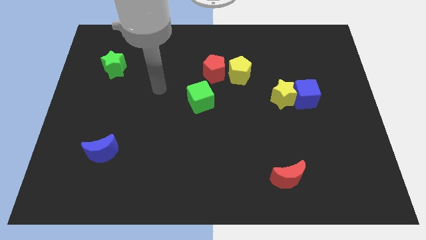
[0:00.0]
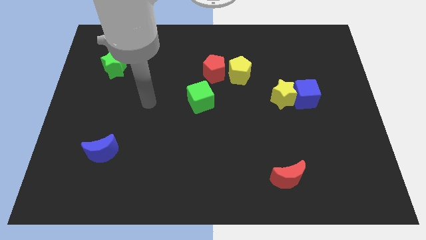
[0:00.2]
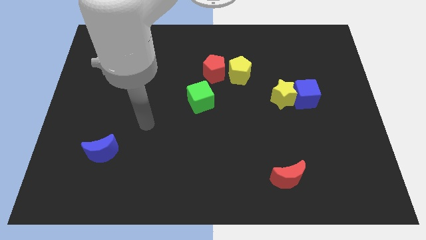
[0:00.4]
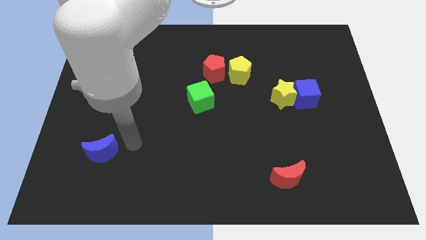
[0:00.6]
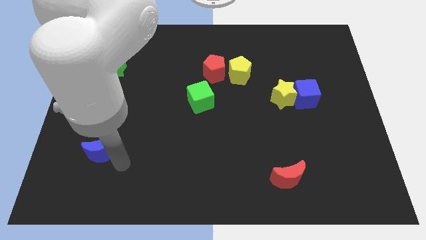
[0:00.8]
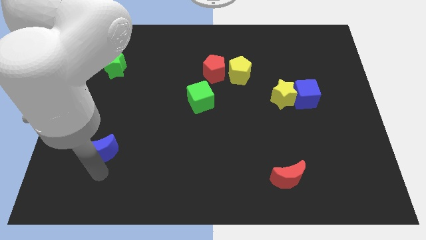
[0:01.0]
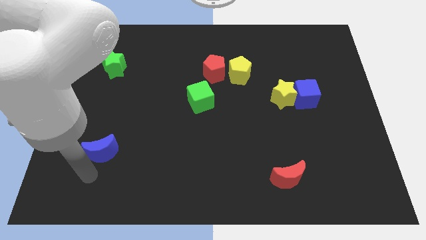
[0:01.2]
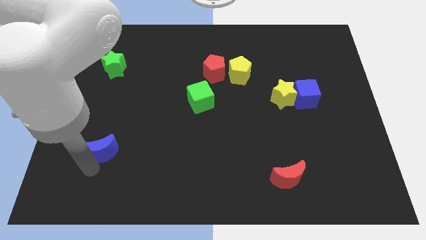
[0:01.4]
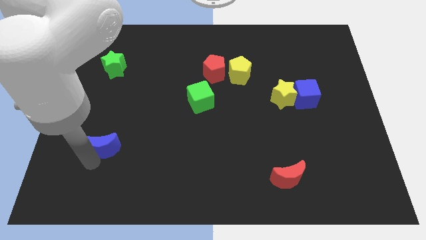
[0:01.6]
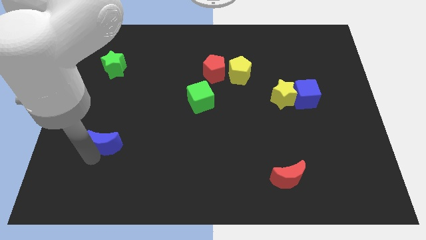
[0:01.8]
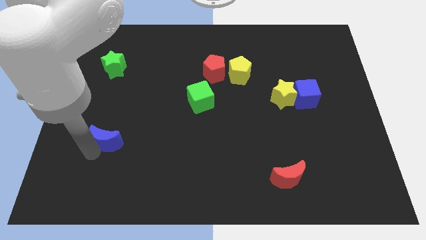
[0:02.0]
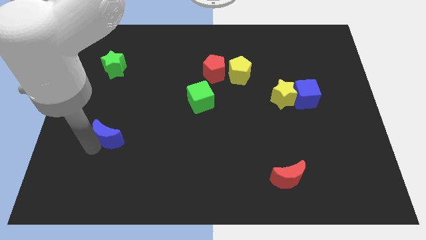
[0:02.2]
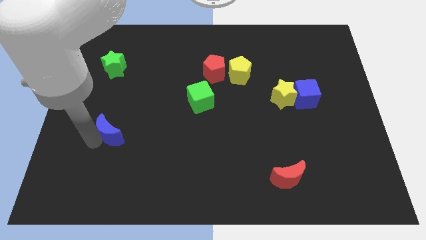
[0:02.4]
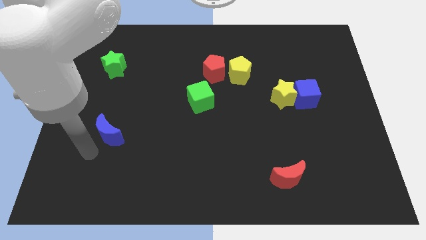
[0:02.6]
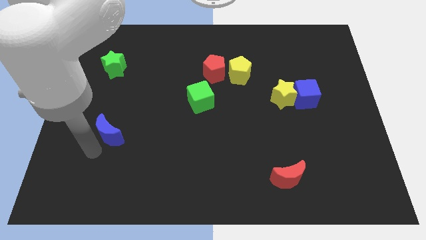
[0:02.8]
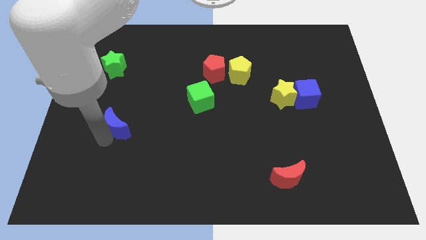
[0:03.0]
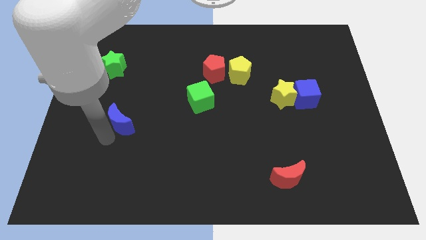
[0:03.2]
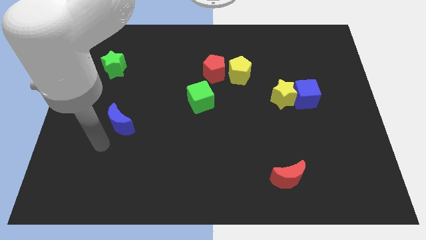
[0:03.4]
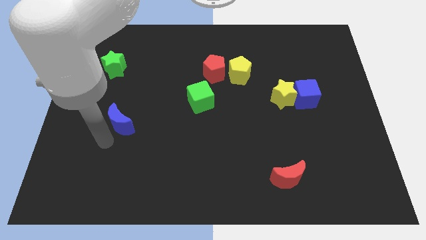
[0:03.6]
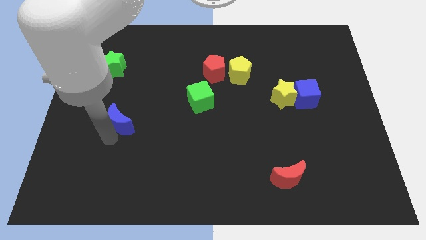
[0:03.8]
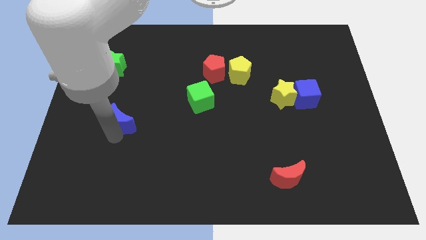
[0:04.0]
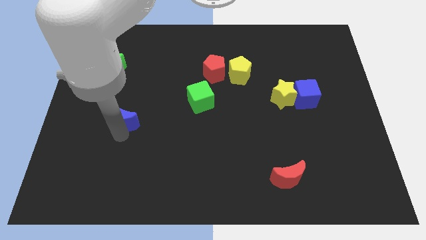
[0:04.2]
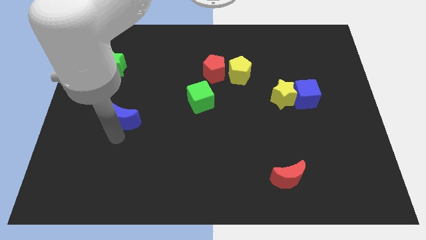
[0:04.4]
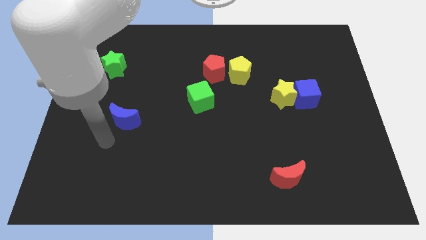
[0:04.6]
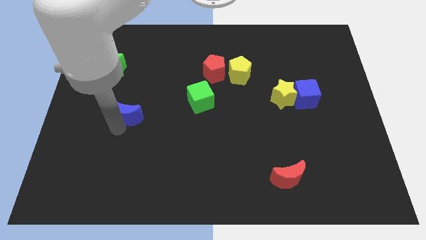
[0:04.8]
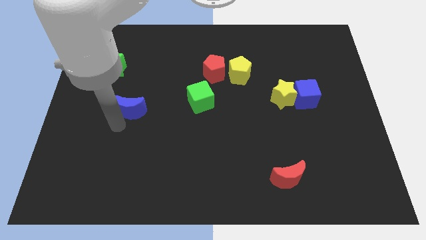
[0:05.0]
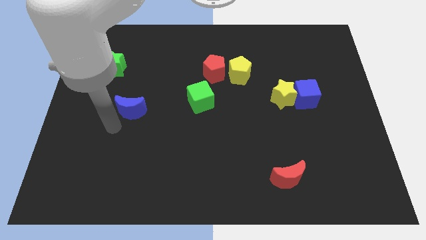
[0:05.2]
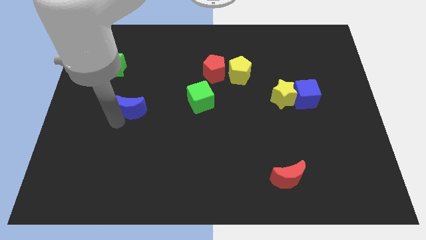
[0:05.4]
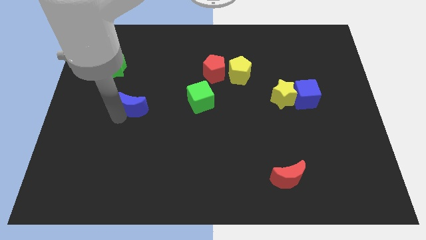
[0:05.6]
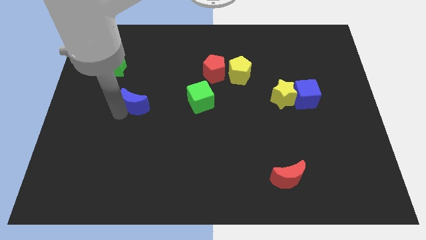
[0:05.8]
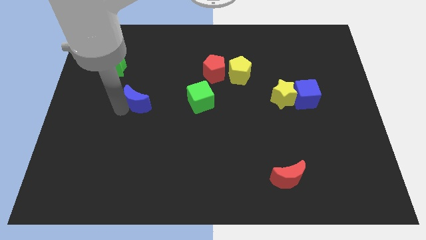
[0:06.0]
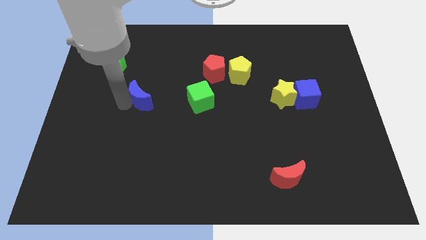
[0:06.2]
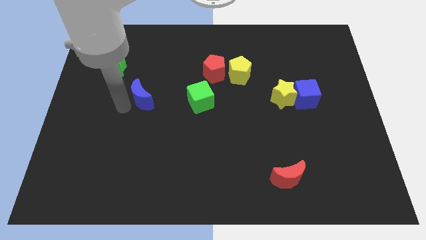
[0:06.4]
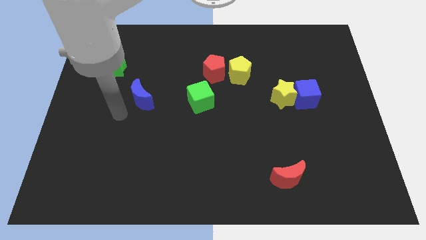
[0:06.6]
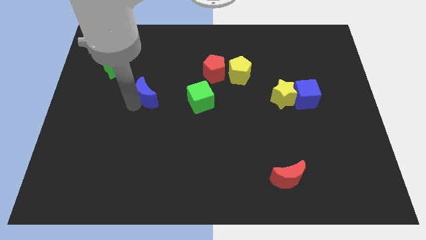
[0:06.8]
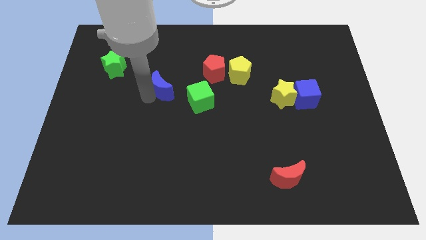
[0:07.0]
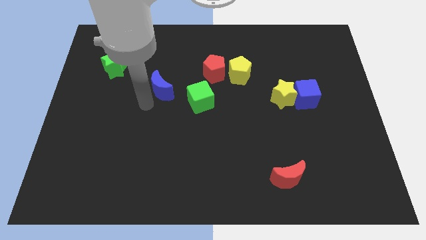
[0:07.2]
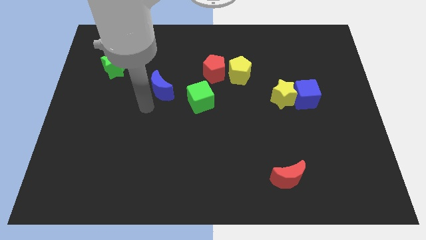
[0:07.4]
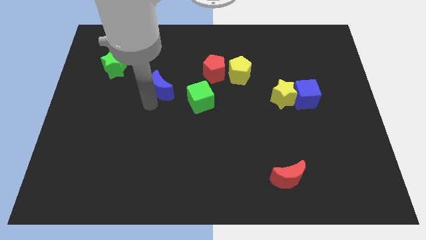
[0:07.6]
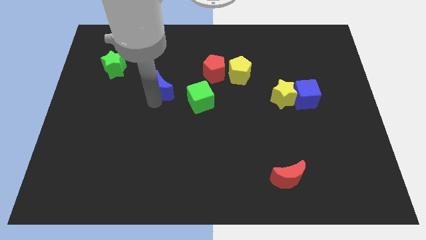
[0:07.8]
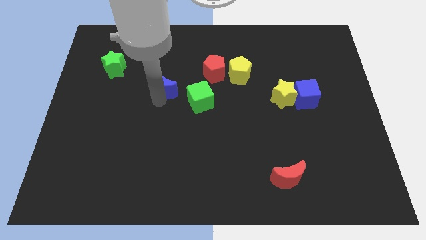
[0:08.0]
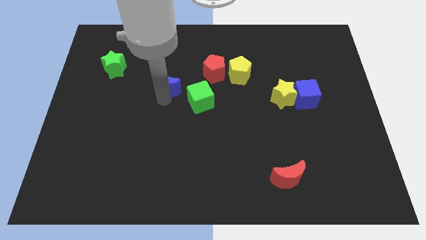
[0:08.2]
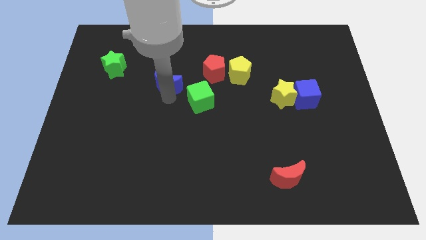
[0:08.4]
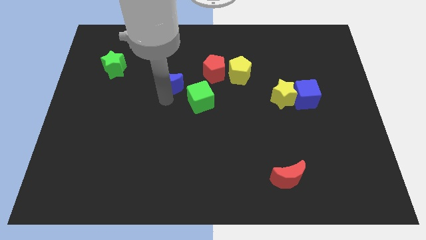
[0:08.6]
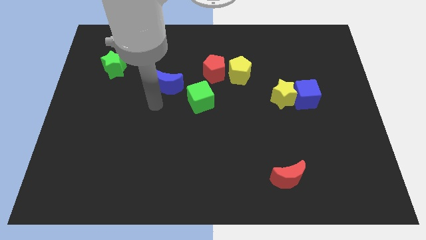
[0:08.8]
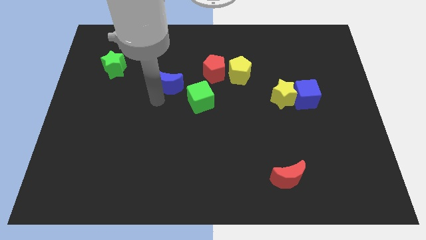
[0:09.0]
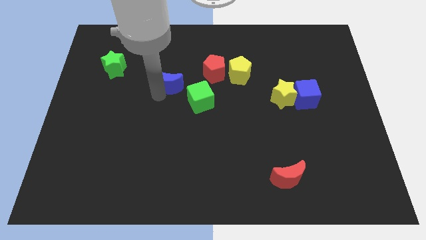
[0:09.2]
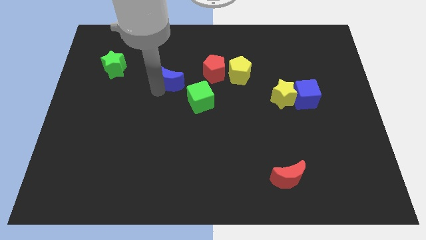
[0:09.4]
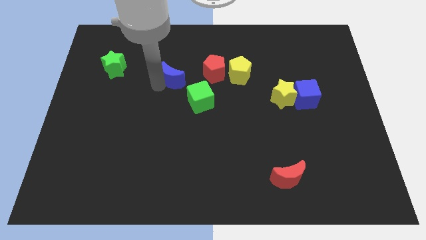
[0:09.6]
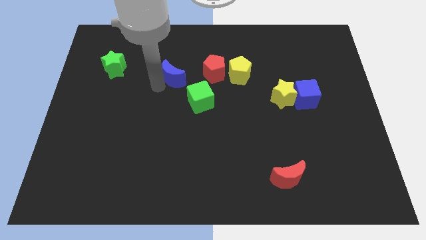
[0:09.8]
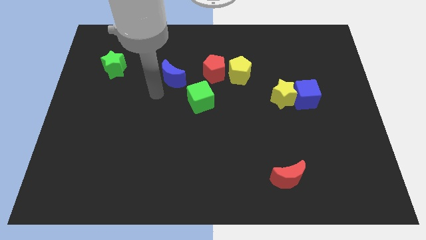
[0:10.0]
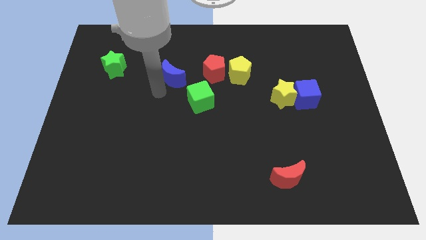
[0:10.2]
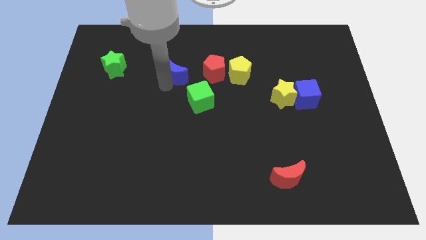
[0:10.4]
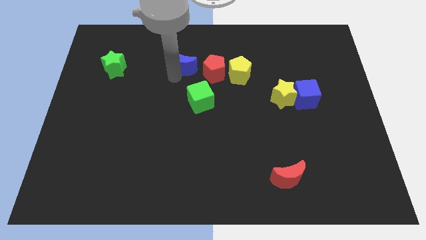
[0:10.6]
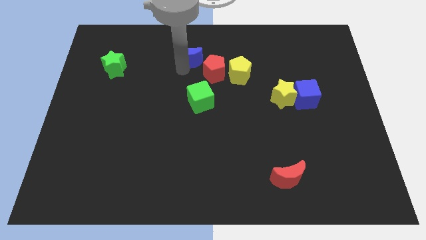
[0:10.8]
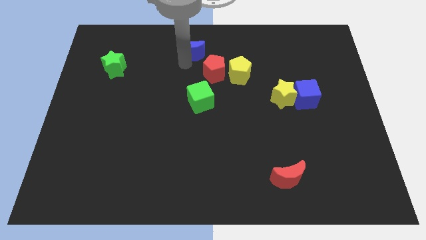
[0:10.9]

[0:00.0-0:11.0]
put the blue moon to the top

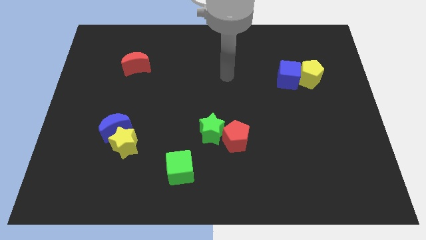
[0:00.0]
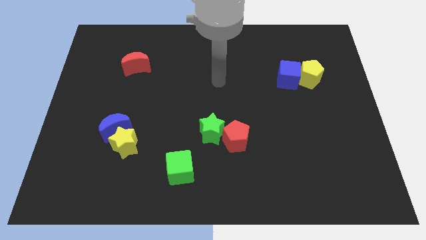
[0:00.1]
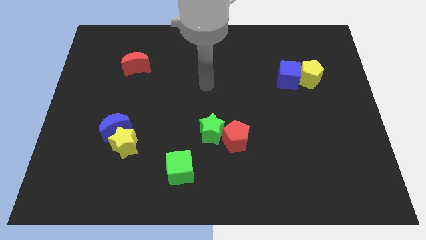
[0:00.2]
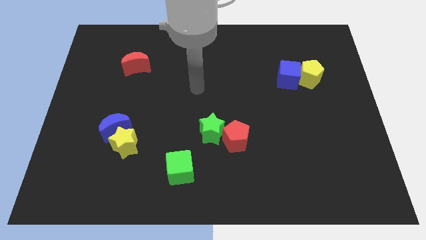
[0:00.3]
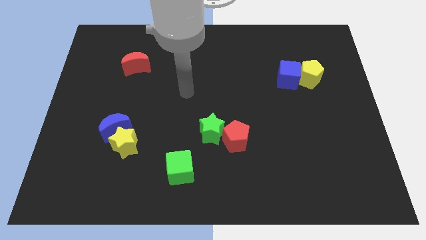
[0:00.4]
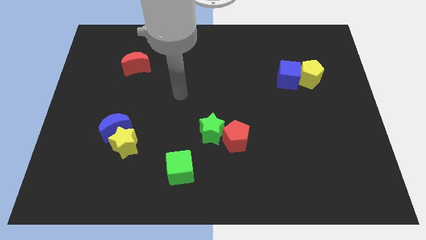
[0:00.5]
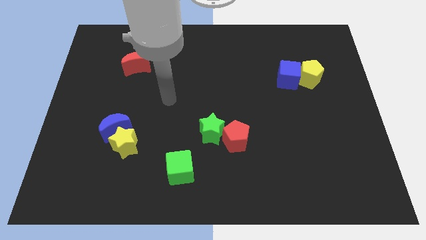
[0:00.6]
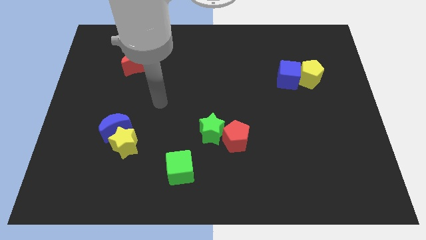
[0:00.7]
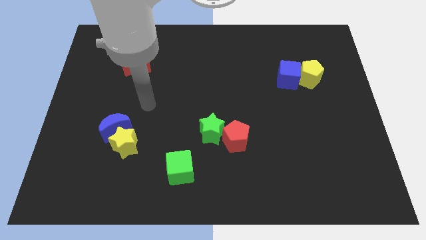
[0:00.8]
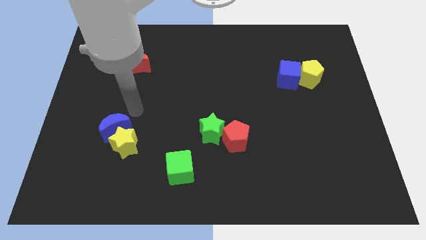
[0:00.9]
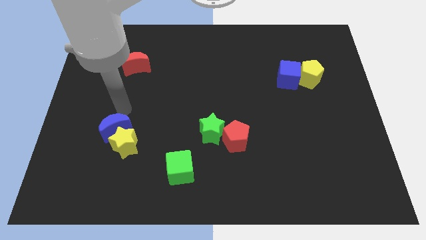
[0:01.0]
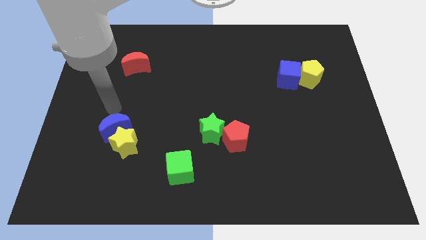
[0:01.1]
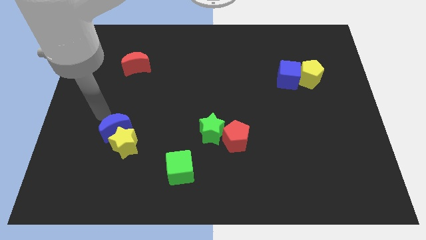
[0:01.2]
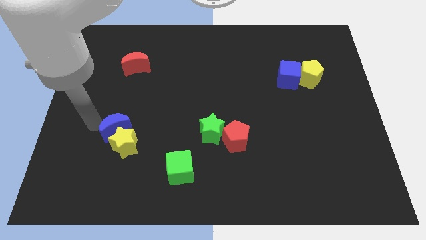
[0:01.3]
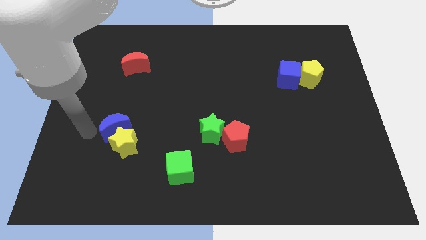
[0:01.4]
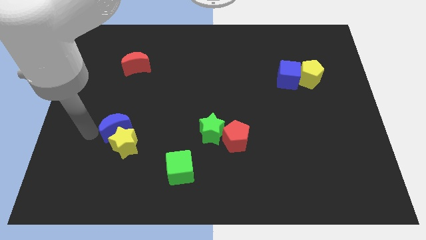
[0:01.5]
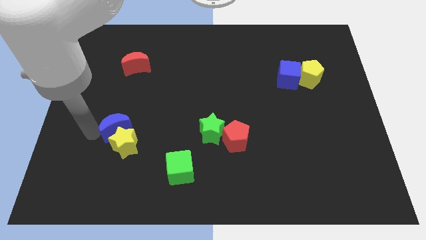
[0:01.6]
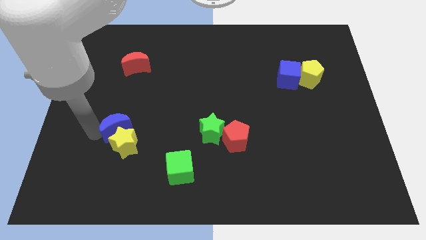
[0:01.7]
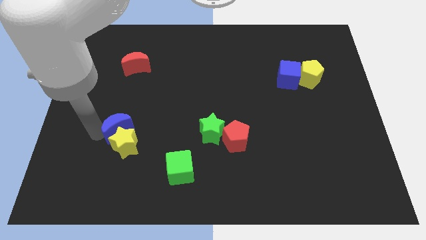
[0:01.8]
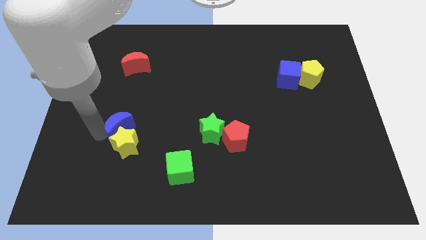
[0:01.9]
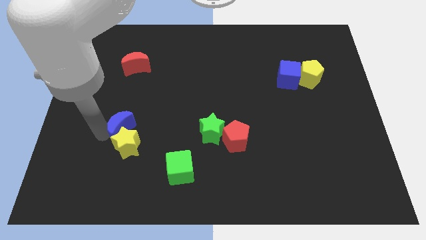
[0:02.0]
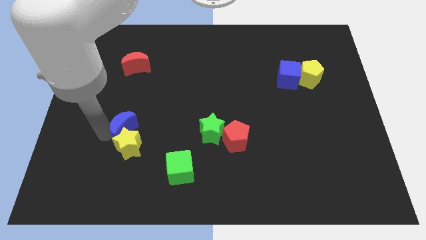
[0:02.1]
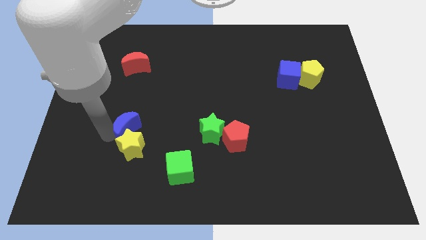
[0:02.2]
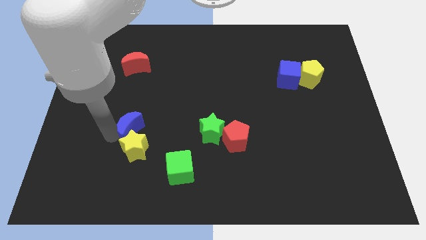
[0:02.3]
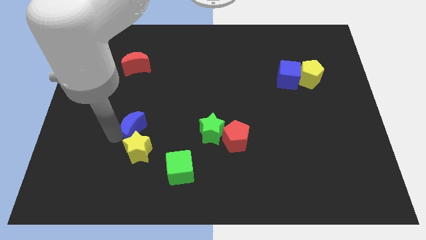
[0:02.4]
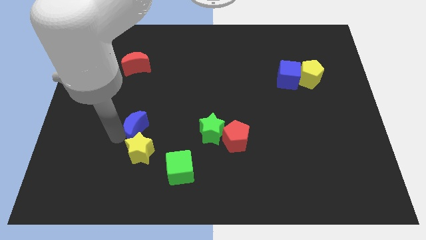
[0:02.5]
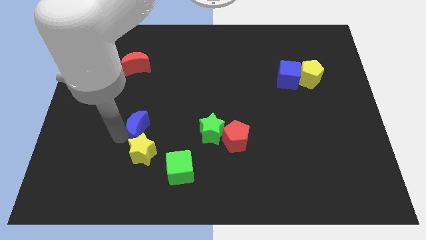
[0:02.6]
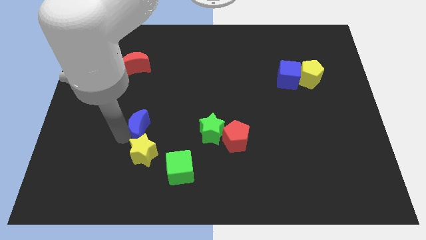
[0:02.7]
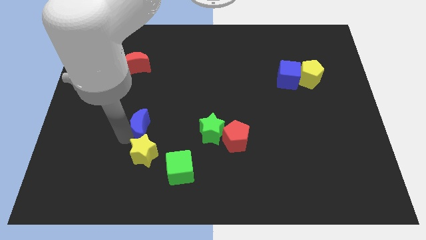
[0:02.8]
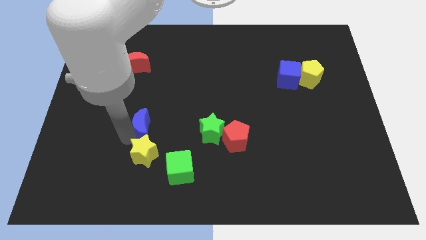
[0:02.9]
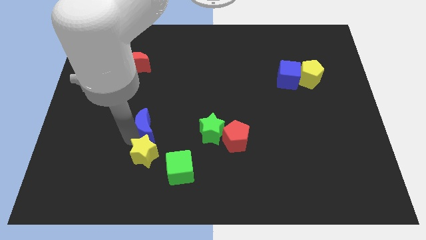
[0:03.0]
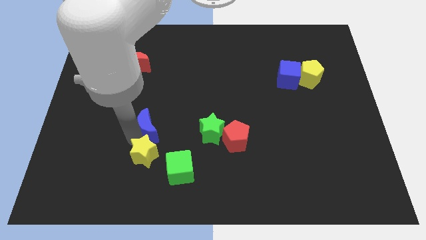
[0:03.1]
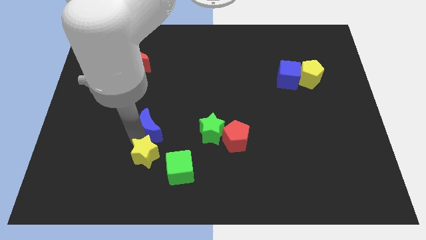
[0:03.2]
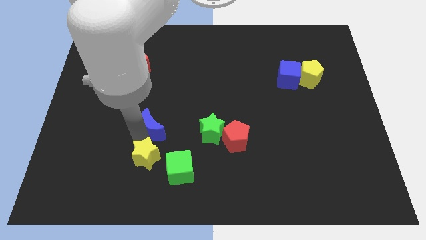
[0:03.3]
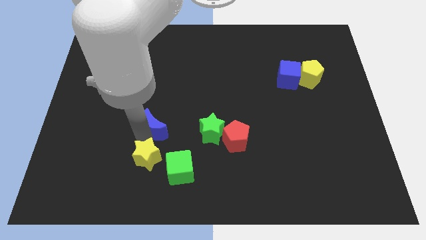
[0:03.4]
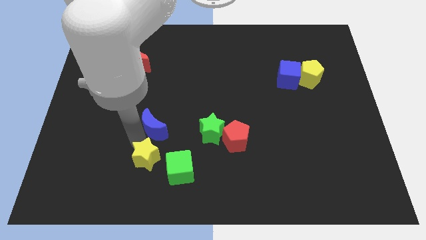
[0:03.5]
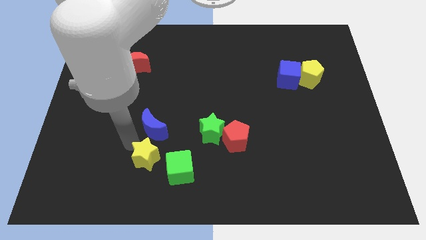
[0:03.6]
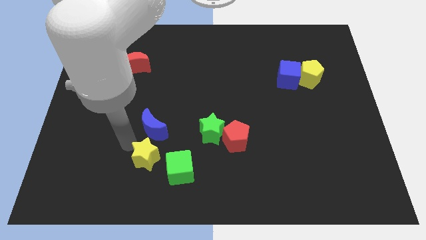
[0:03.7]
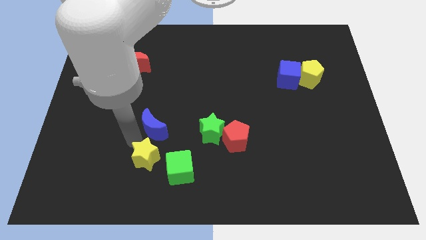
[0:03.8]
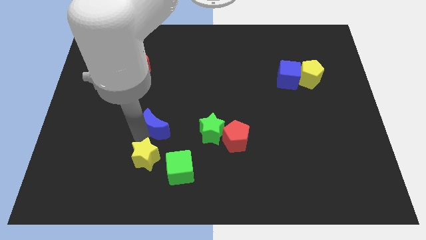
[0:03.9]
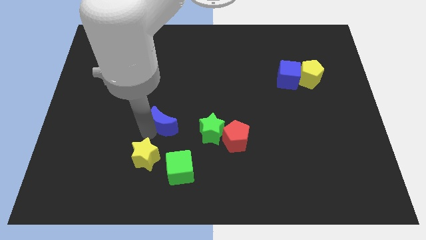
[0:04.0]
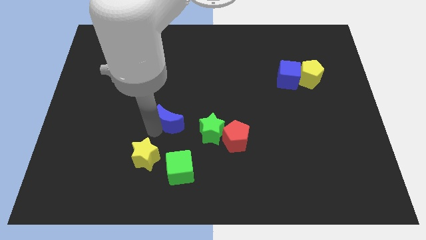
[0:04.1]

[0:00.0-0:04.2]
push the blue moon to the middle
